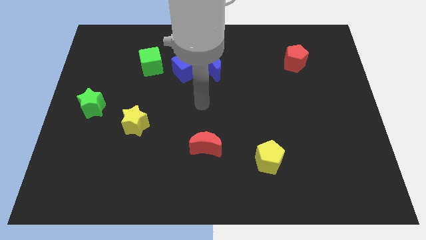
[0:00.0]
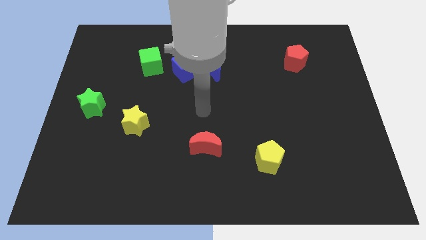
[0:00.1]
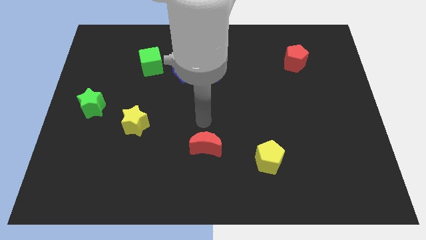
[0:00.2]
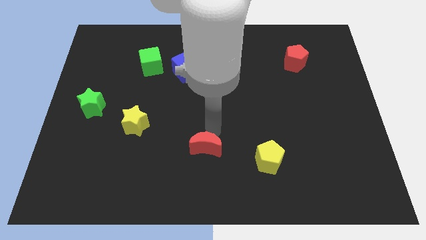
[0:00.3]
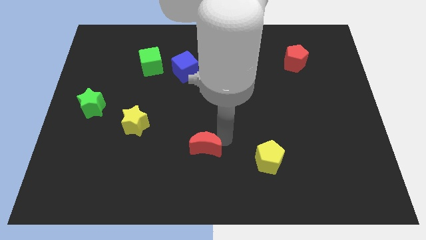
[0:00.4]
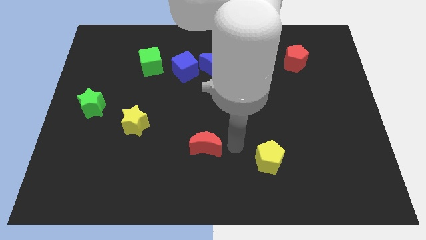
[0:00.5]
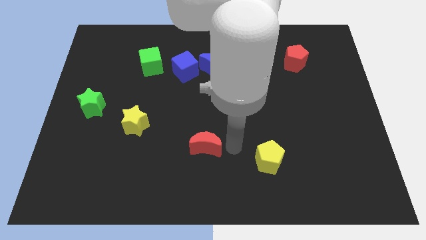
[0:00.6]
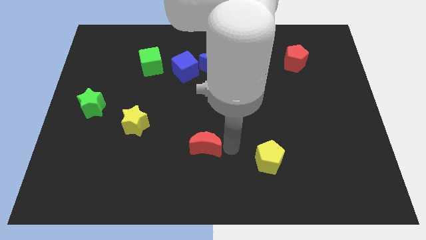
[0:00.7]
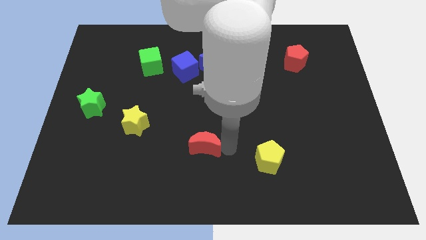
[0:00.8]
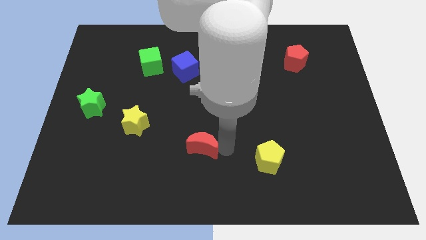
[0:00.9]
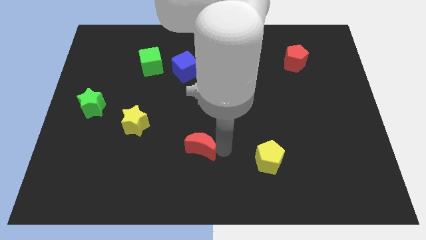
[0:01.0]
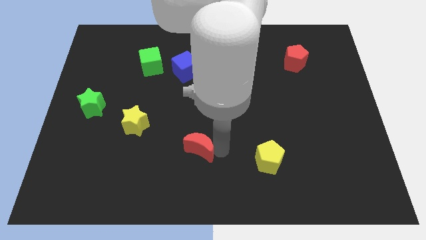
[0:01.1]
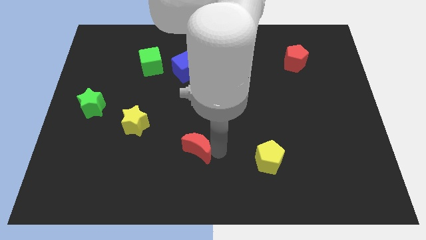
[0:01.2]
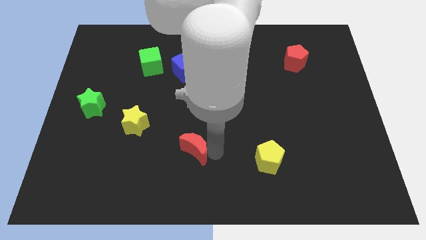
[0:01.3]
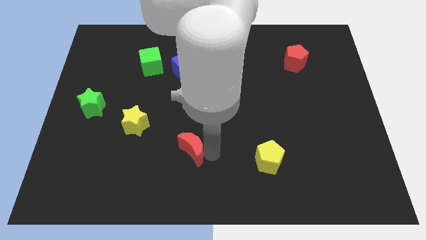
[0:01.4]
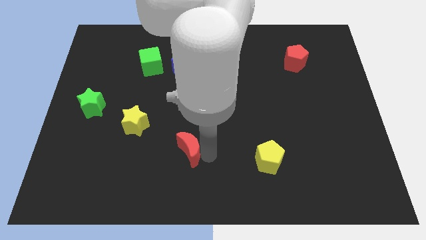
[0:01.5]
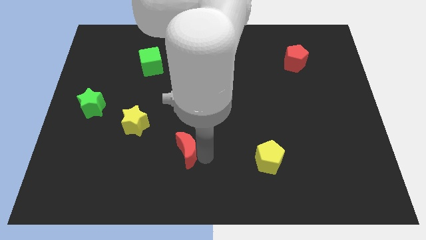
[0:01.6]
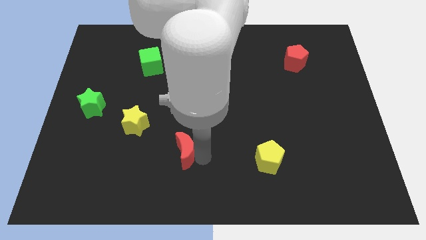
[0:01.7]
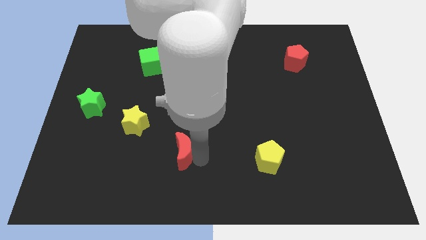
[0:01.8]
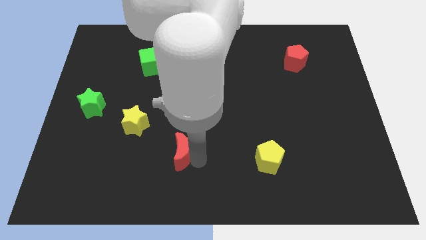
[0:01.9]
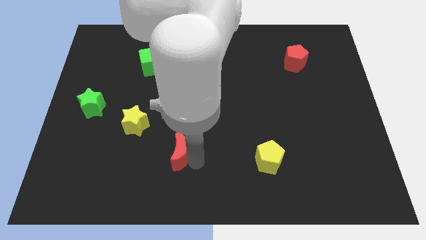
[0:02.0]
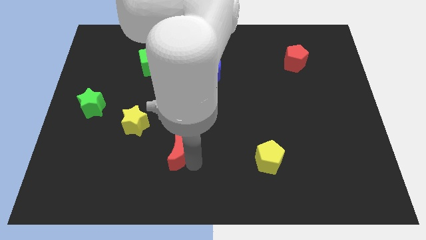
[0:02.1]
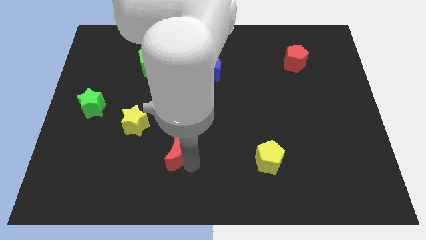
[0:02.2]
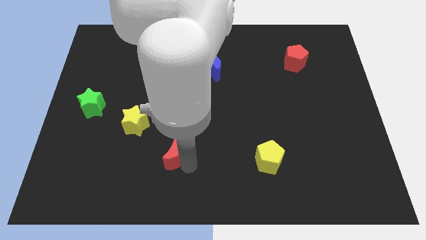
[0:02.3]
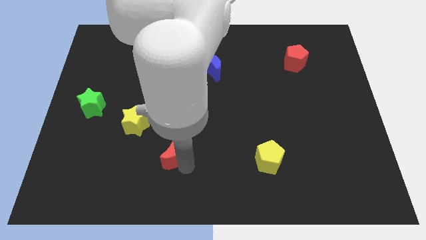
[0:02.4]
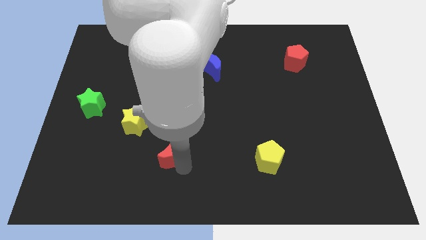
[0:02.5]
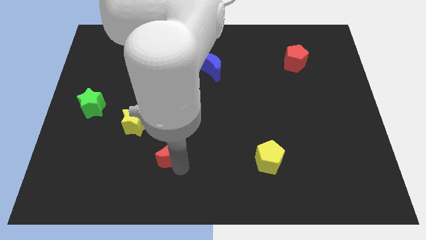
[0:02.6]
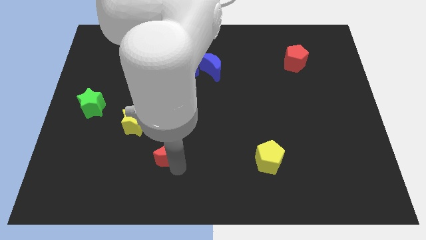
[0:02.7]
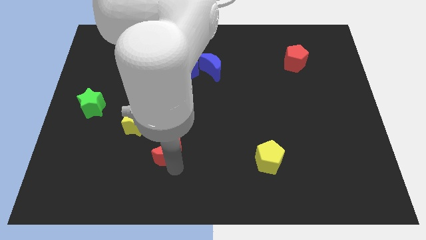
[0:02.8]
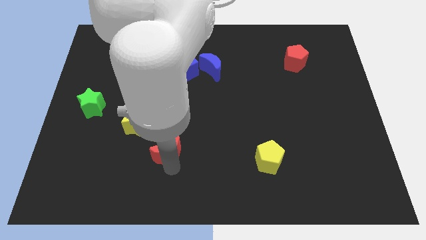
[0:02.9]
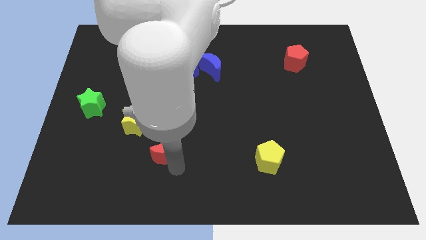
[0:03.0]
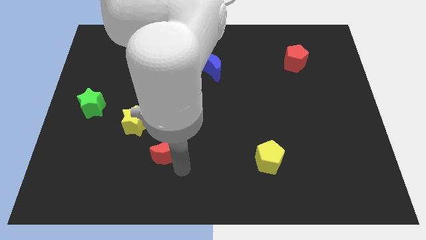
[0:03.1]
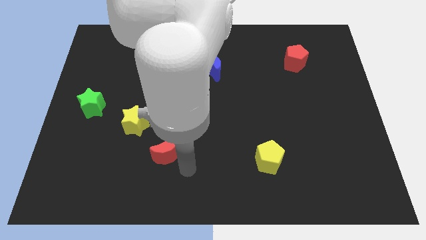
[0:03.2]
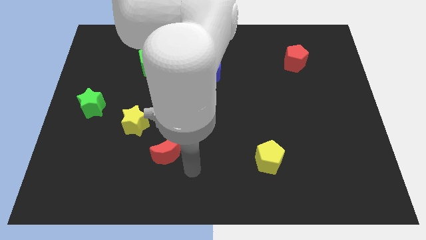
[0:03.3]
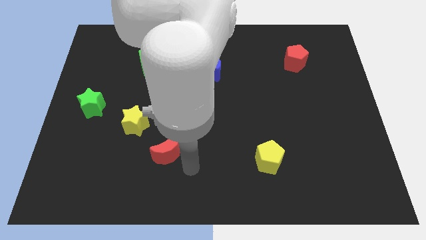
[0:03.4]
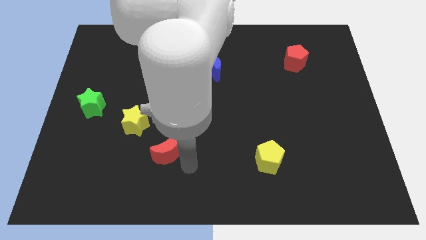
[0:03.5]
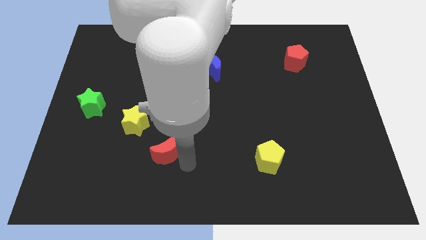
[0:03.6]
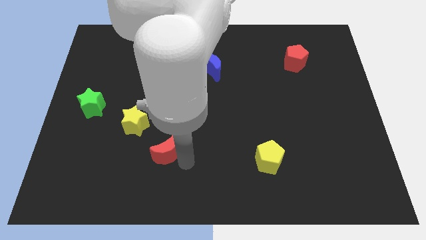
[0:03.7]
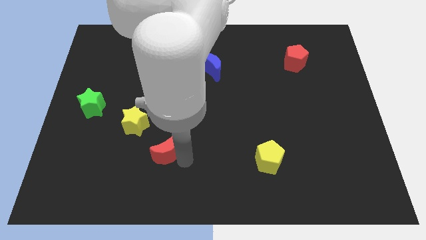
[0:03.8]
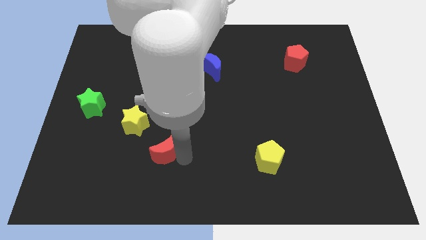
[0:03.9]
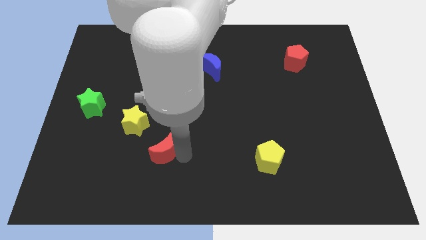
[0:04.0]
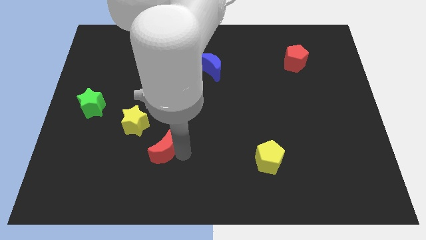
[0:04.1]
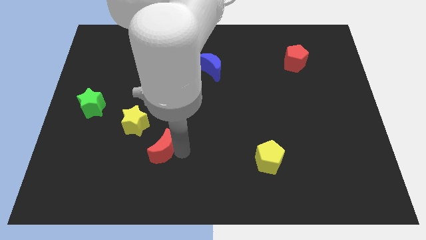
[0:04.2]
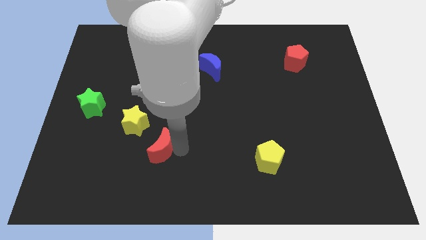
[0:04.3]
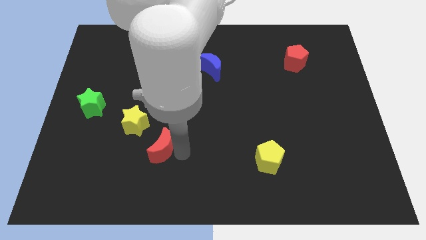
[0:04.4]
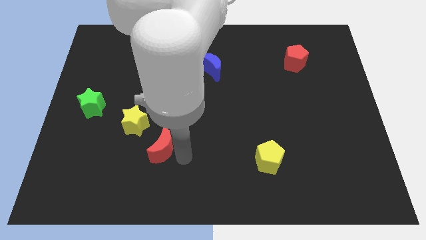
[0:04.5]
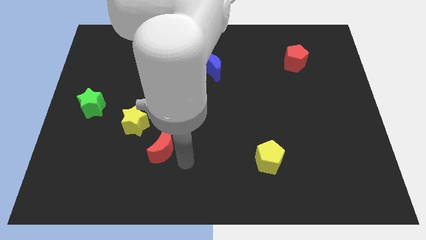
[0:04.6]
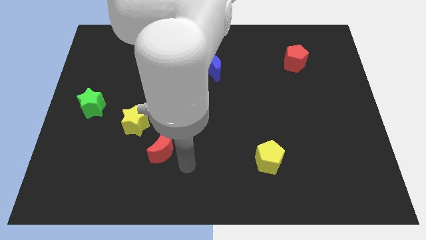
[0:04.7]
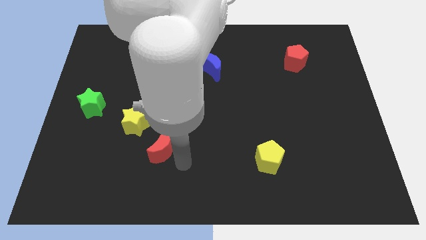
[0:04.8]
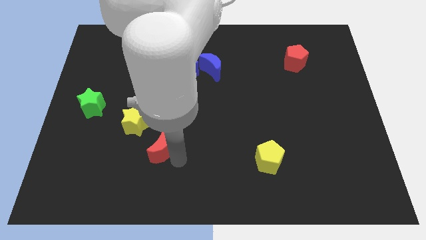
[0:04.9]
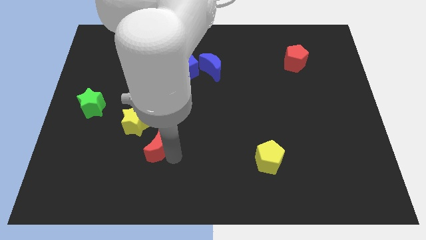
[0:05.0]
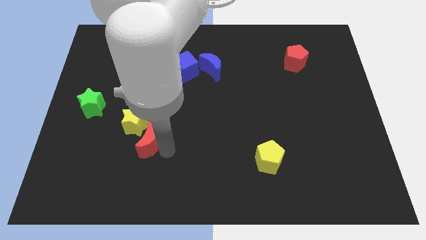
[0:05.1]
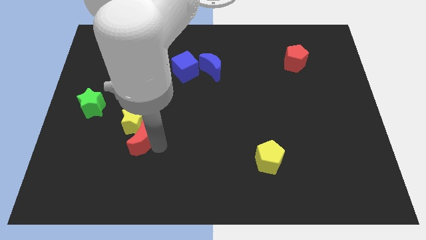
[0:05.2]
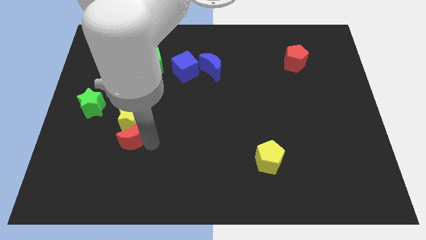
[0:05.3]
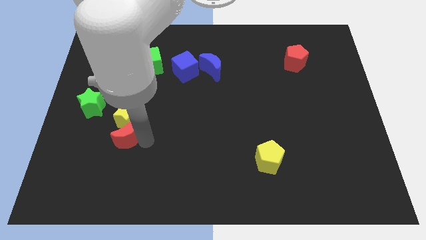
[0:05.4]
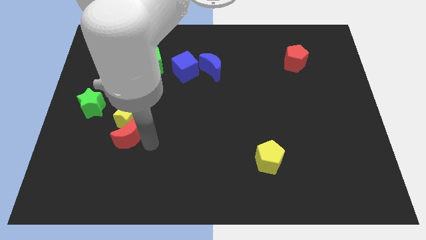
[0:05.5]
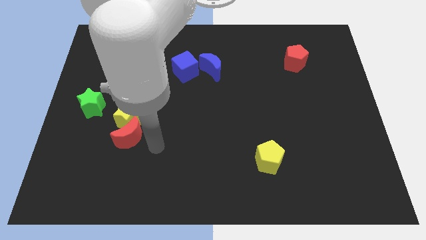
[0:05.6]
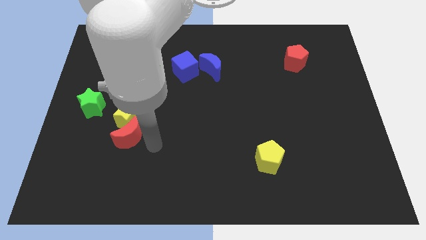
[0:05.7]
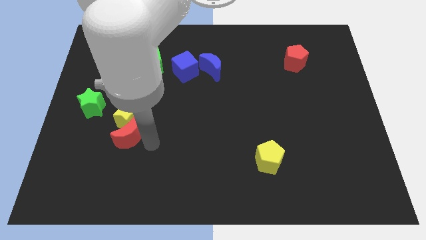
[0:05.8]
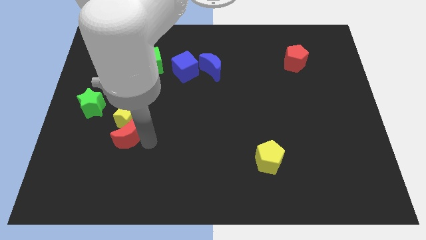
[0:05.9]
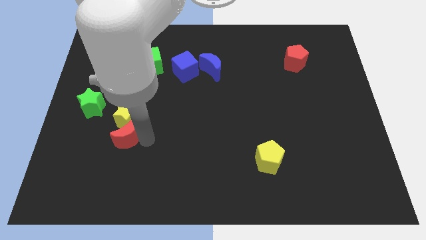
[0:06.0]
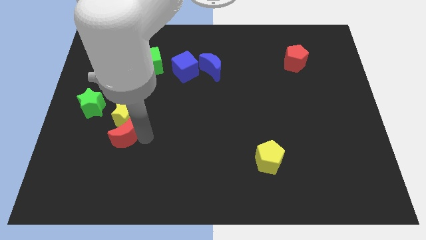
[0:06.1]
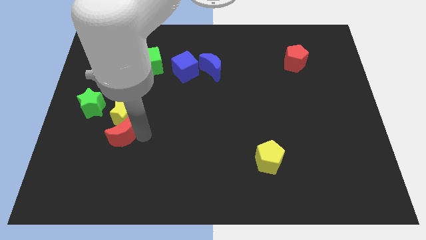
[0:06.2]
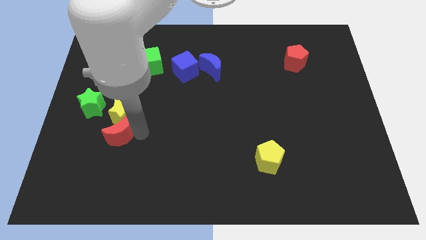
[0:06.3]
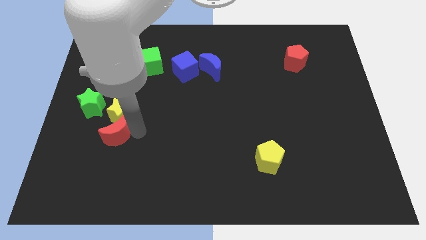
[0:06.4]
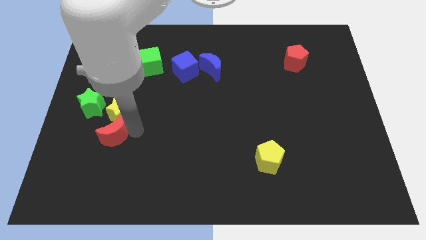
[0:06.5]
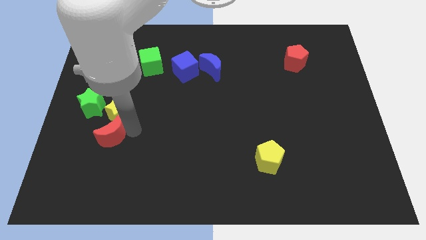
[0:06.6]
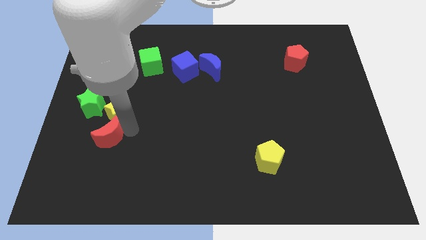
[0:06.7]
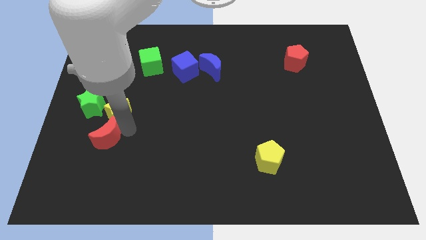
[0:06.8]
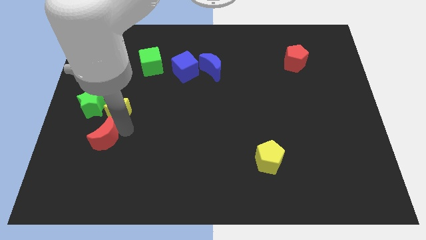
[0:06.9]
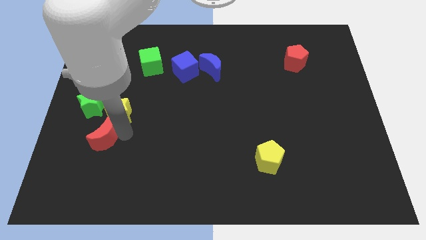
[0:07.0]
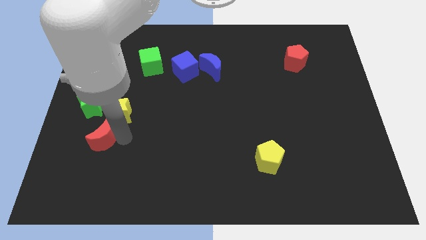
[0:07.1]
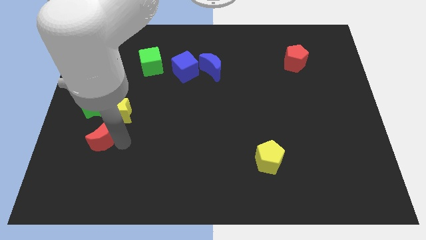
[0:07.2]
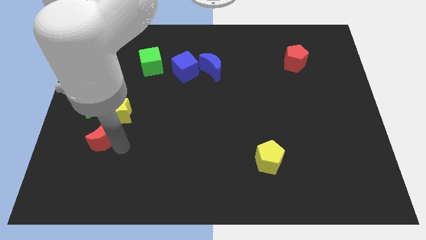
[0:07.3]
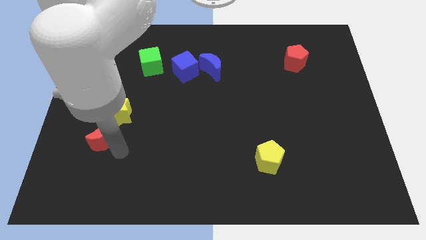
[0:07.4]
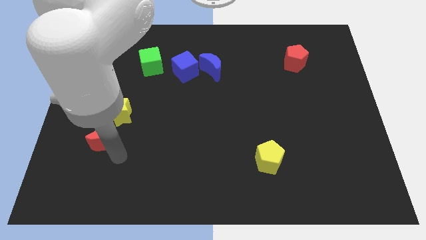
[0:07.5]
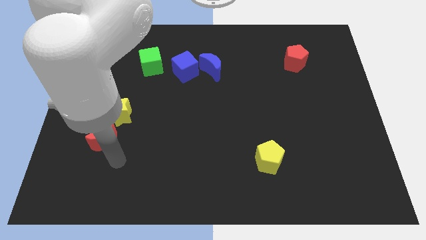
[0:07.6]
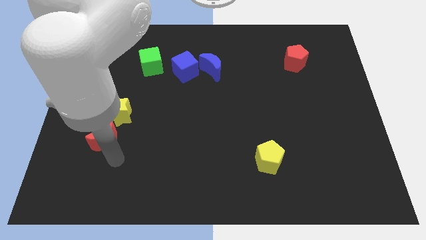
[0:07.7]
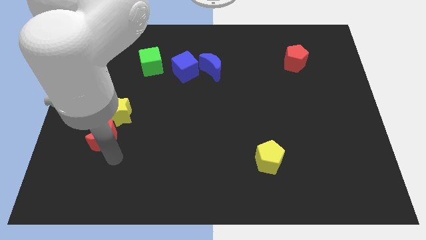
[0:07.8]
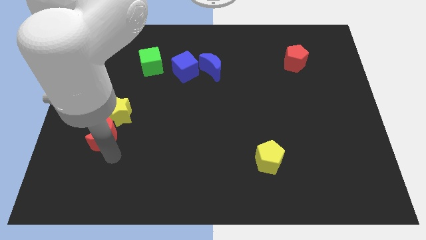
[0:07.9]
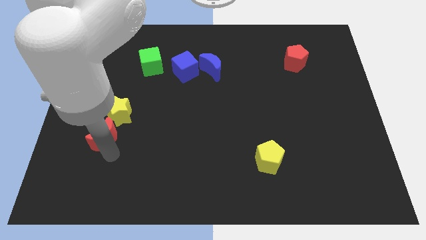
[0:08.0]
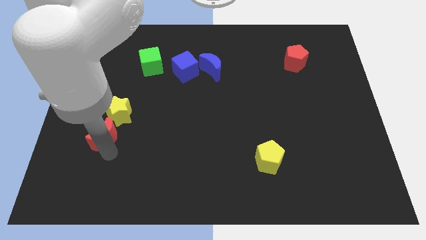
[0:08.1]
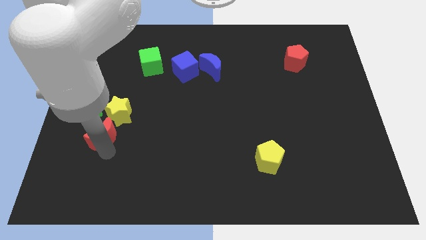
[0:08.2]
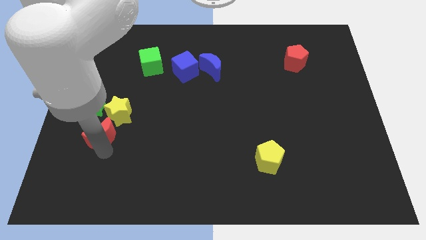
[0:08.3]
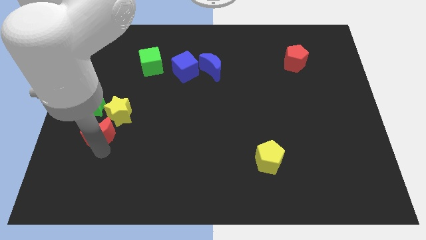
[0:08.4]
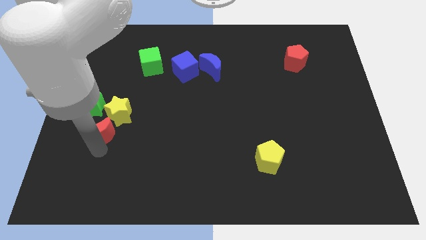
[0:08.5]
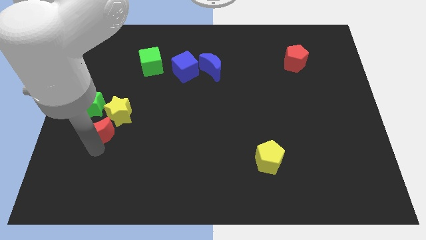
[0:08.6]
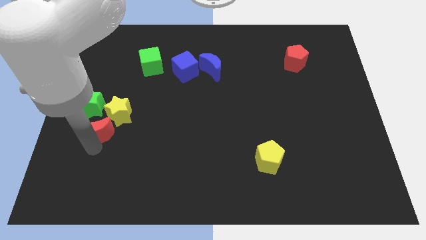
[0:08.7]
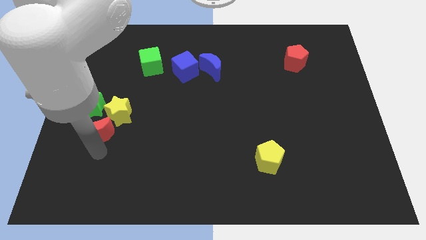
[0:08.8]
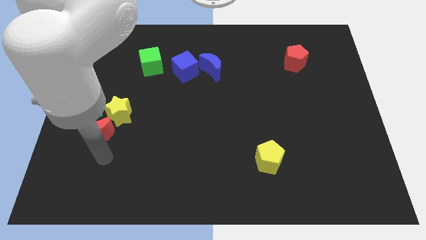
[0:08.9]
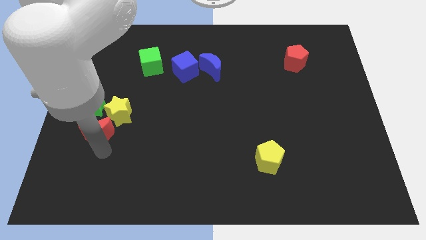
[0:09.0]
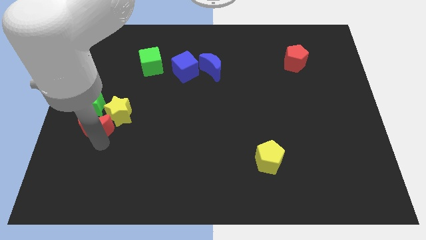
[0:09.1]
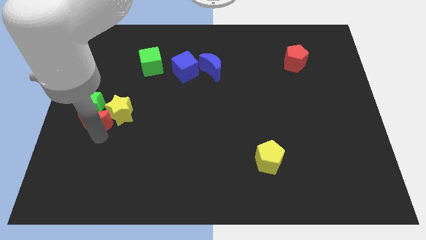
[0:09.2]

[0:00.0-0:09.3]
move the red moon close to the green star
